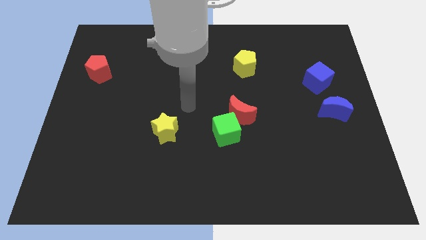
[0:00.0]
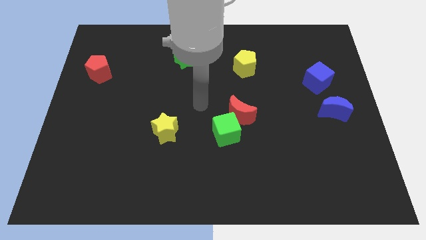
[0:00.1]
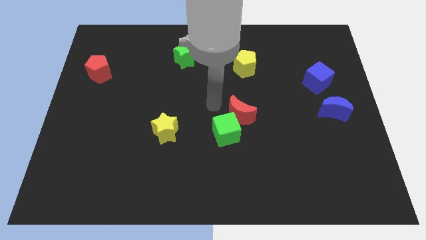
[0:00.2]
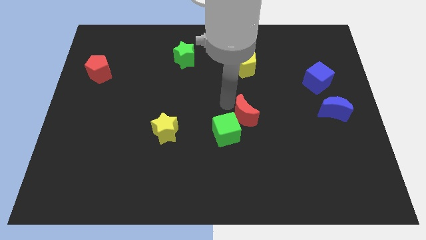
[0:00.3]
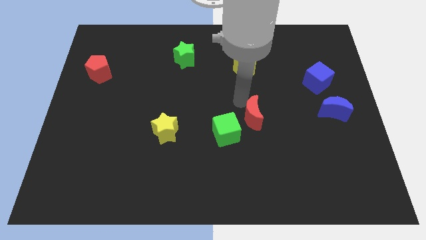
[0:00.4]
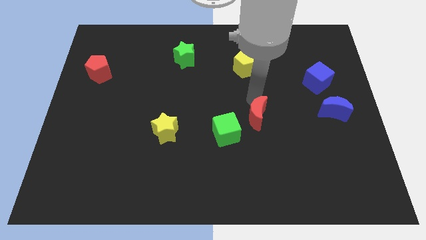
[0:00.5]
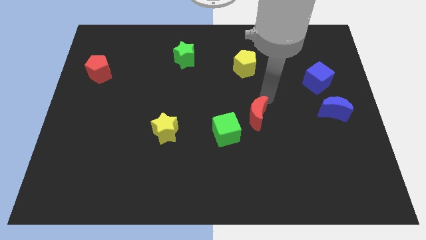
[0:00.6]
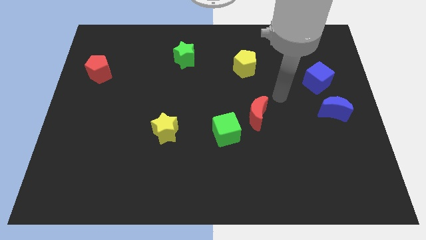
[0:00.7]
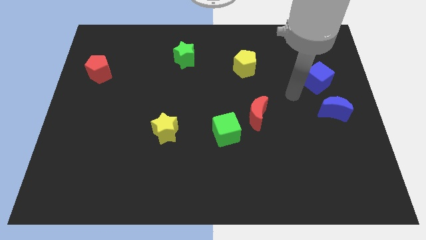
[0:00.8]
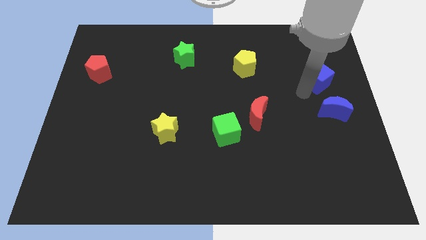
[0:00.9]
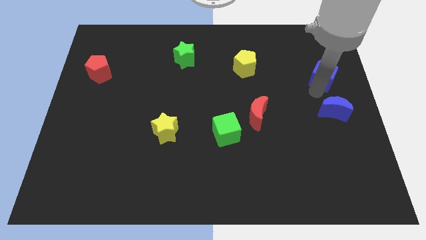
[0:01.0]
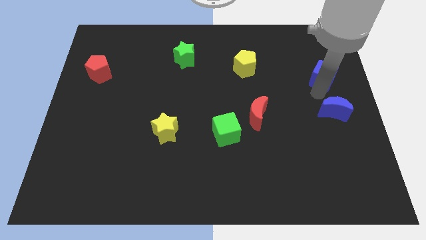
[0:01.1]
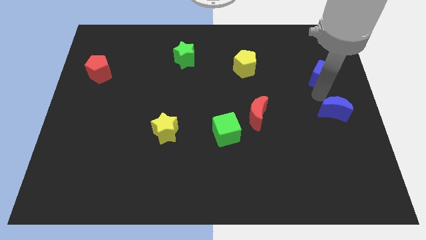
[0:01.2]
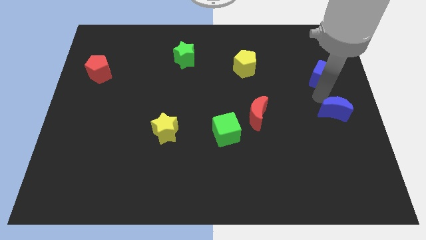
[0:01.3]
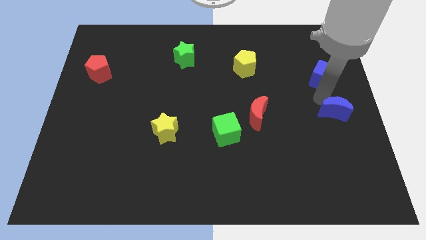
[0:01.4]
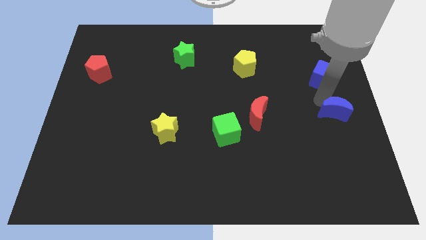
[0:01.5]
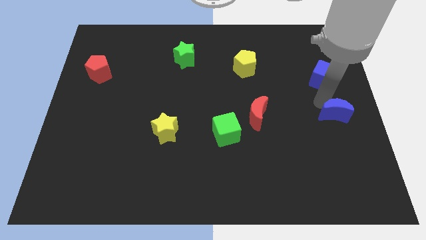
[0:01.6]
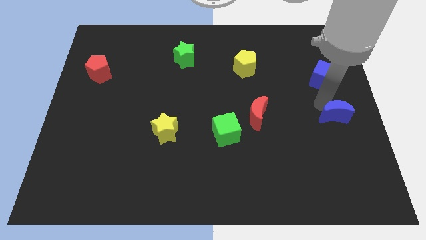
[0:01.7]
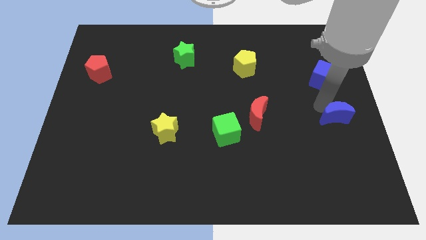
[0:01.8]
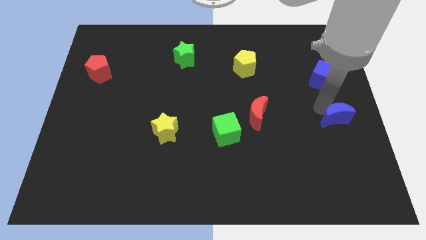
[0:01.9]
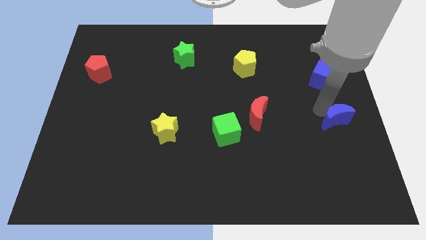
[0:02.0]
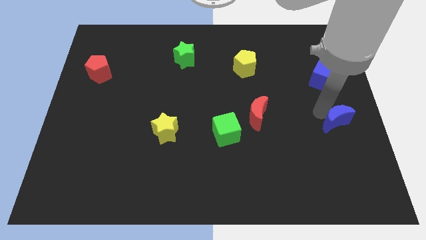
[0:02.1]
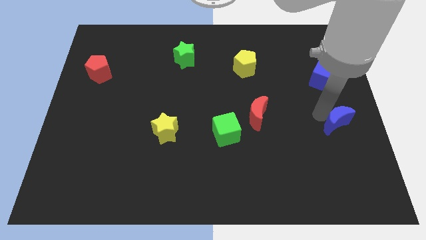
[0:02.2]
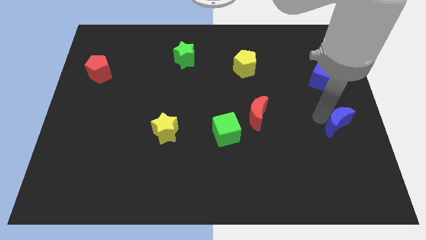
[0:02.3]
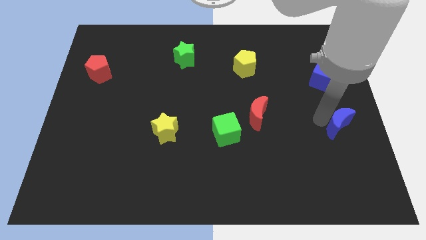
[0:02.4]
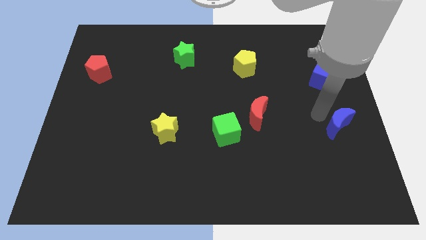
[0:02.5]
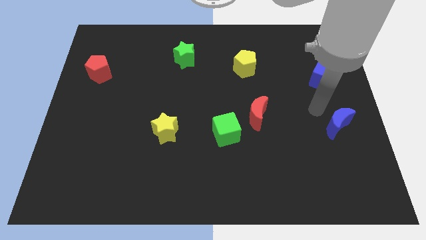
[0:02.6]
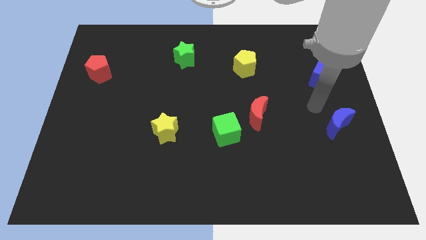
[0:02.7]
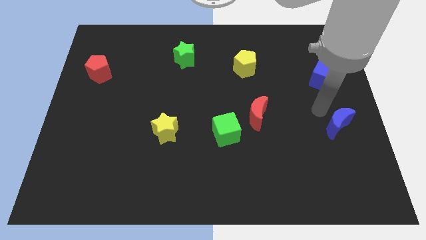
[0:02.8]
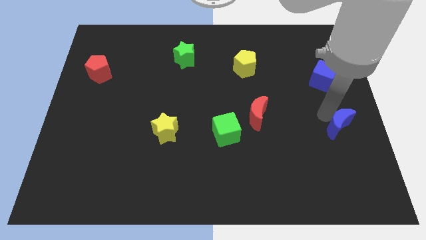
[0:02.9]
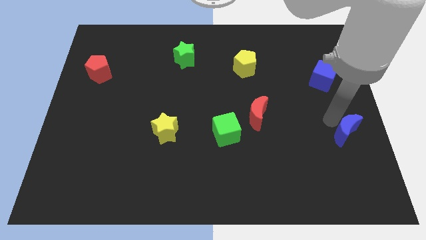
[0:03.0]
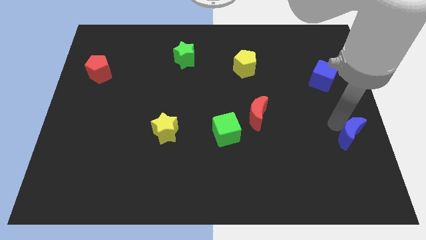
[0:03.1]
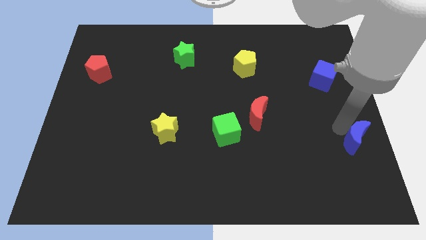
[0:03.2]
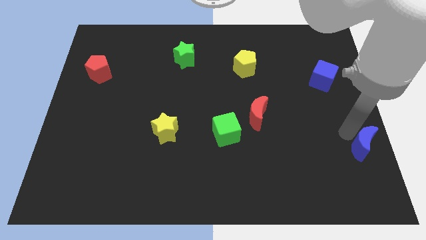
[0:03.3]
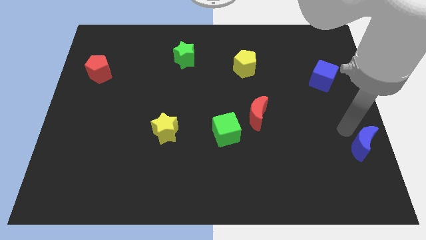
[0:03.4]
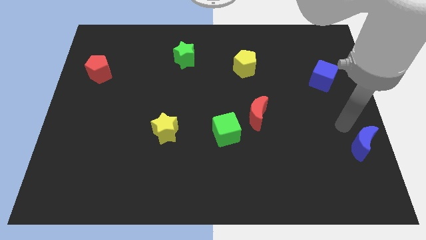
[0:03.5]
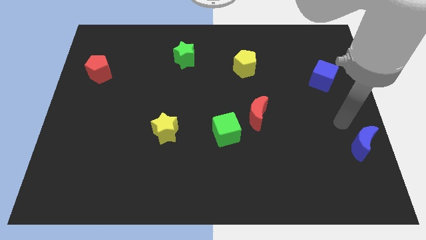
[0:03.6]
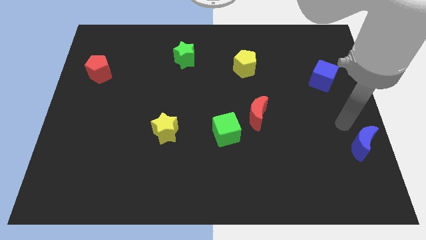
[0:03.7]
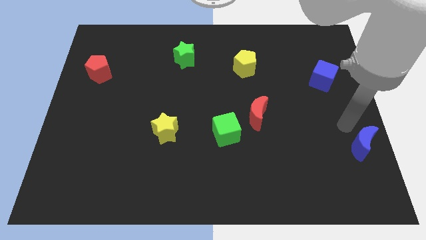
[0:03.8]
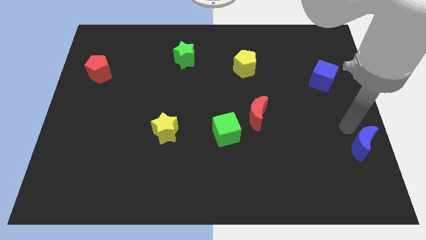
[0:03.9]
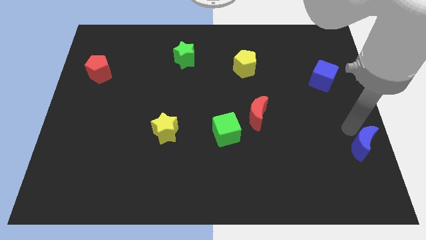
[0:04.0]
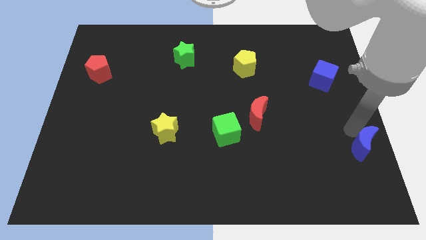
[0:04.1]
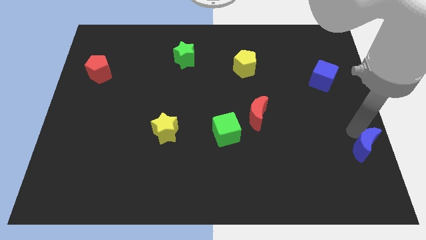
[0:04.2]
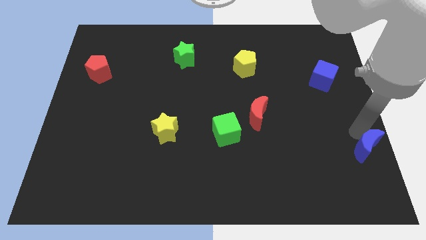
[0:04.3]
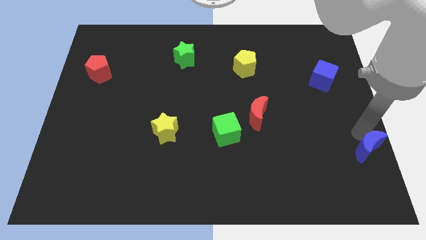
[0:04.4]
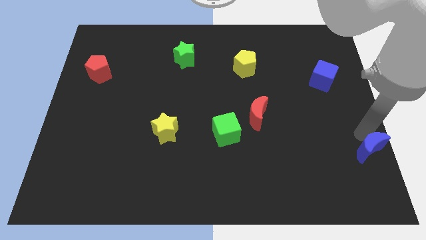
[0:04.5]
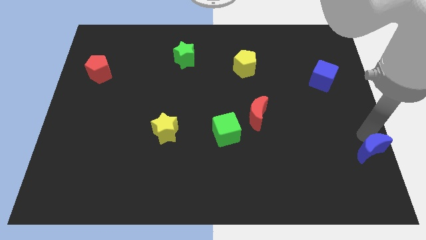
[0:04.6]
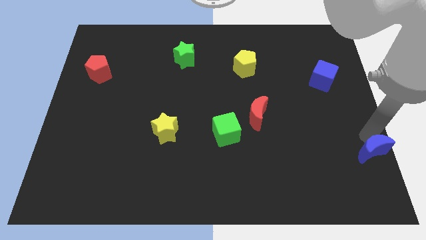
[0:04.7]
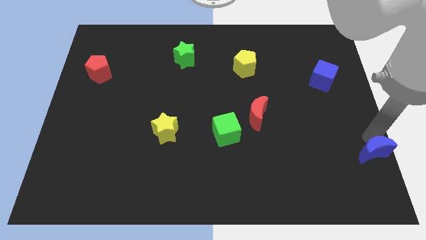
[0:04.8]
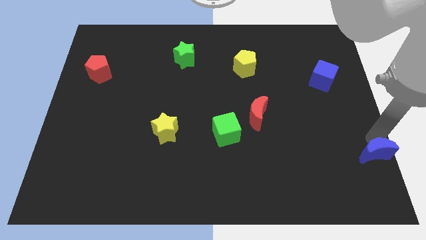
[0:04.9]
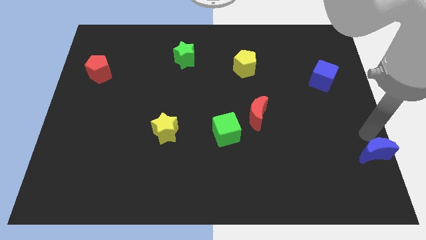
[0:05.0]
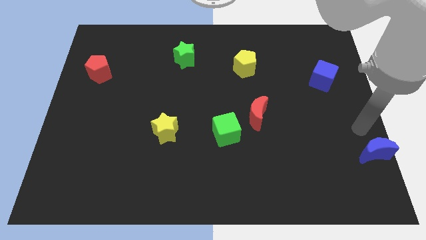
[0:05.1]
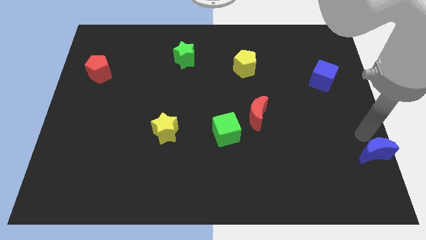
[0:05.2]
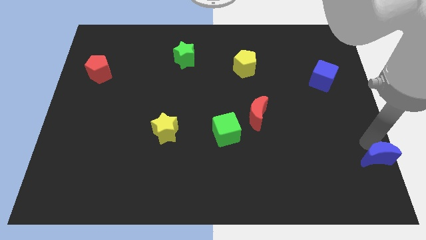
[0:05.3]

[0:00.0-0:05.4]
push the blue moon to the bottom right of the board

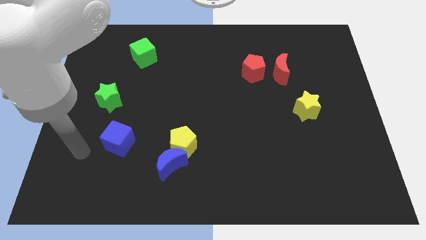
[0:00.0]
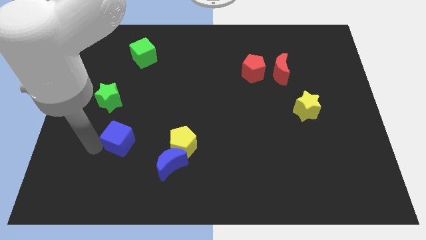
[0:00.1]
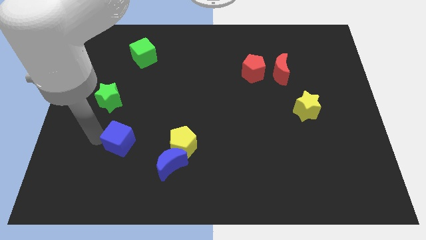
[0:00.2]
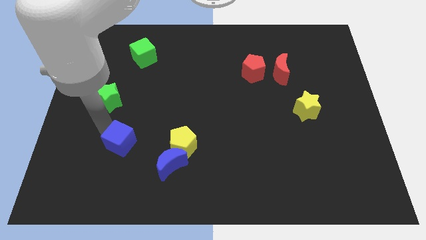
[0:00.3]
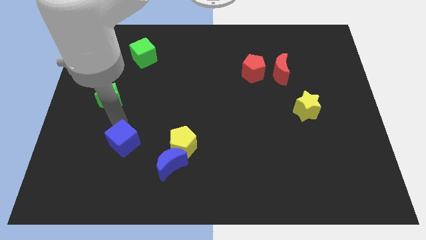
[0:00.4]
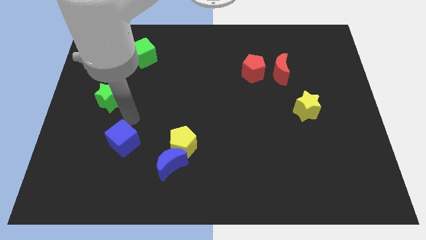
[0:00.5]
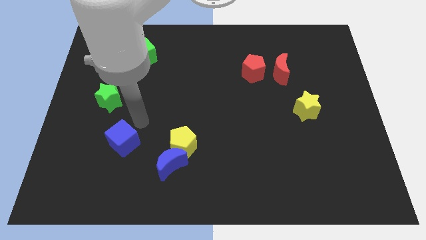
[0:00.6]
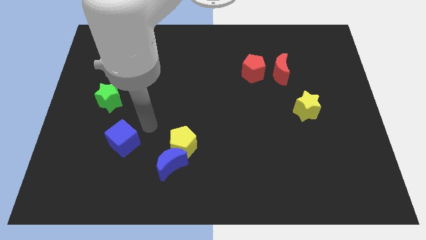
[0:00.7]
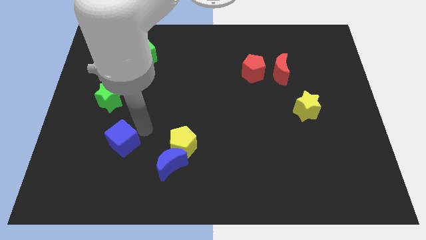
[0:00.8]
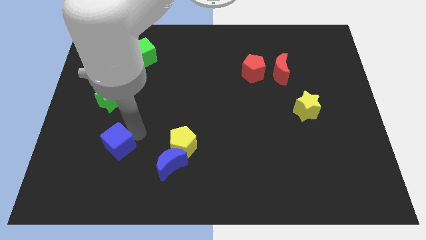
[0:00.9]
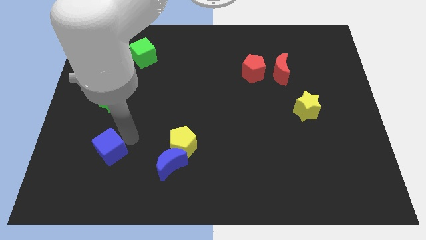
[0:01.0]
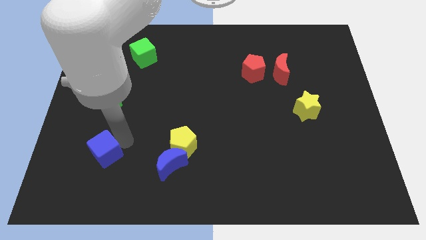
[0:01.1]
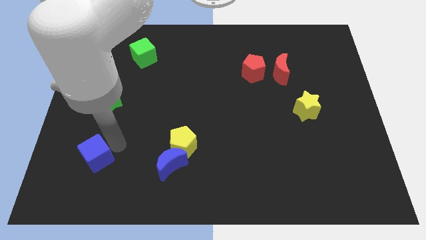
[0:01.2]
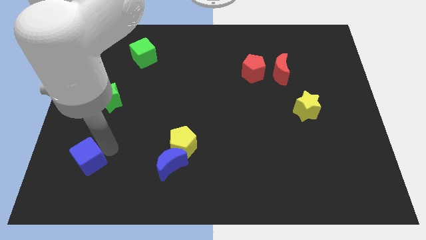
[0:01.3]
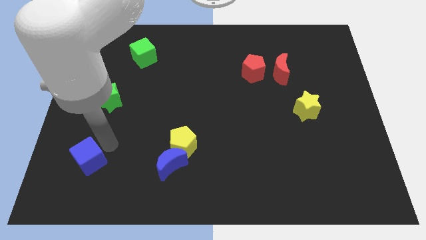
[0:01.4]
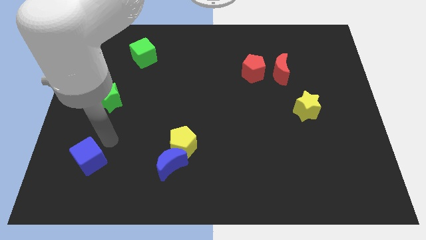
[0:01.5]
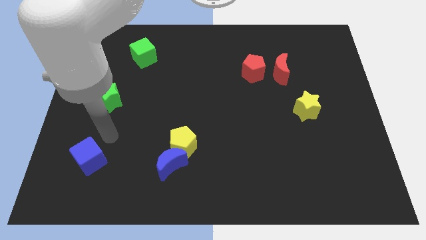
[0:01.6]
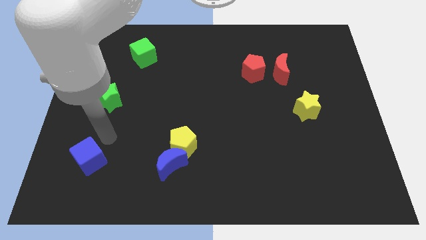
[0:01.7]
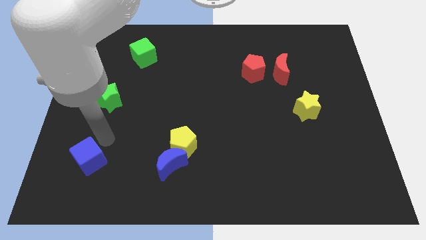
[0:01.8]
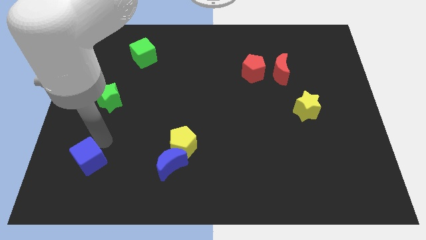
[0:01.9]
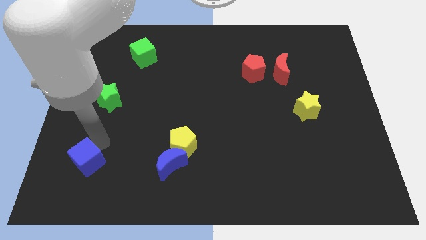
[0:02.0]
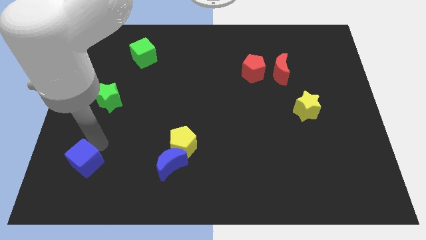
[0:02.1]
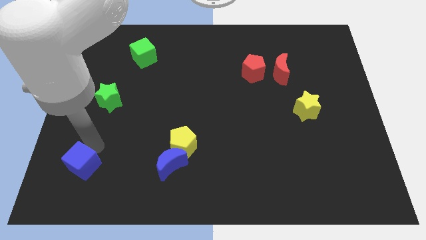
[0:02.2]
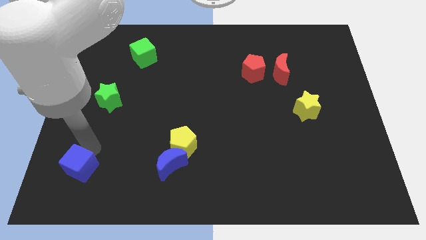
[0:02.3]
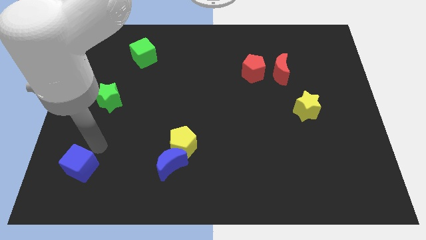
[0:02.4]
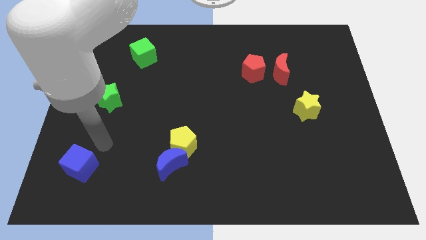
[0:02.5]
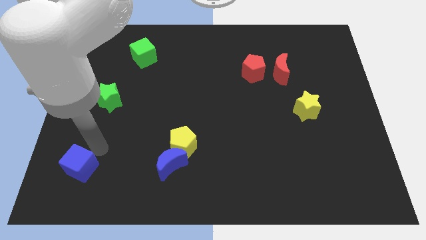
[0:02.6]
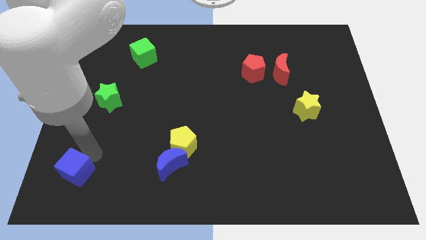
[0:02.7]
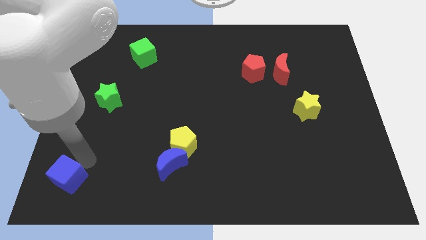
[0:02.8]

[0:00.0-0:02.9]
slide the blue cube to the lower left corner
